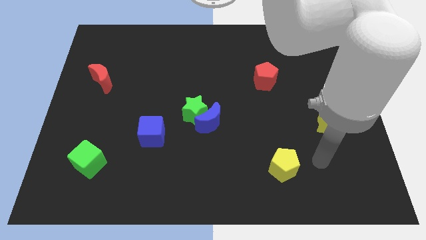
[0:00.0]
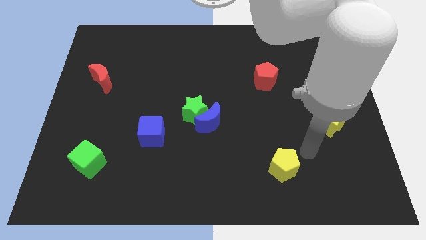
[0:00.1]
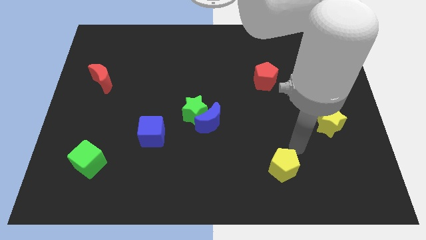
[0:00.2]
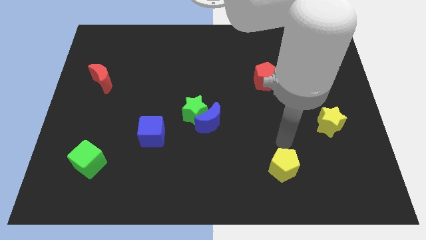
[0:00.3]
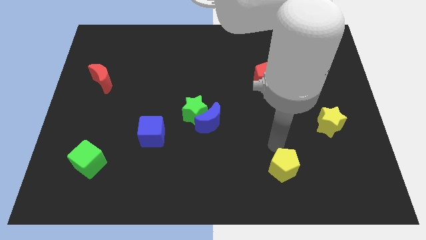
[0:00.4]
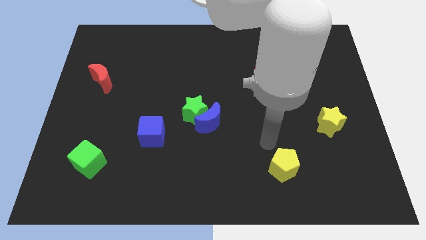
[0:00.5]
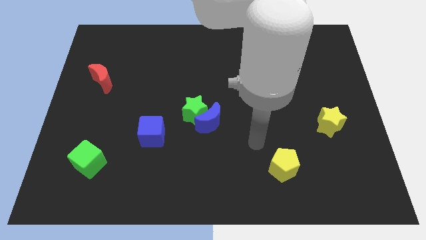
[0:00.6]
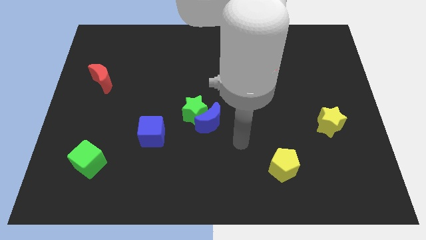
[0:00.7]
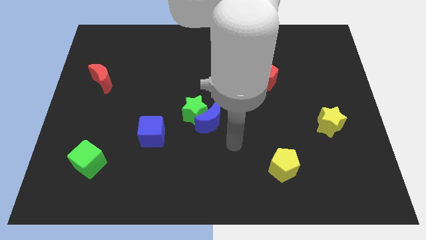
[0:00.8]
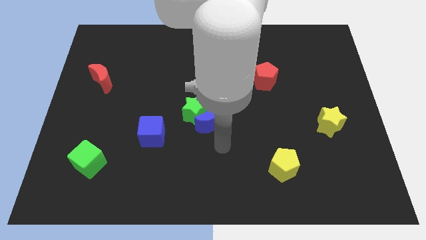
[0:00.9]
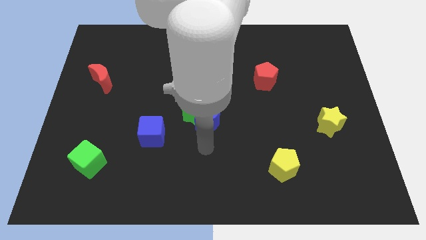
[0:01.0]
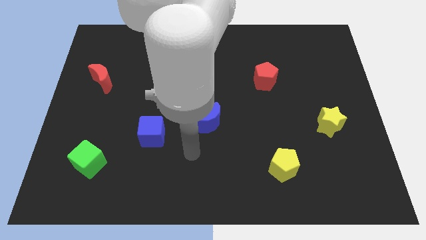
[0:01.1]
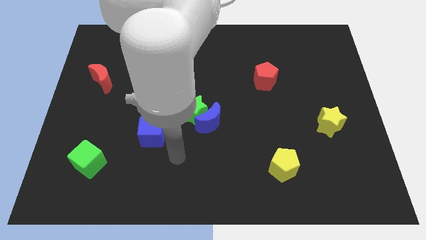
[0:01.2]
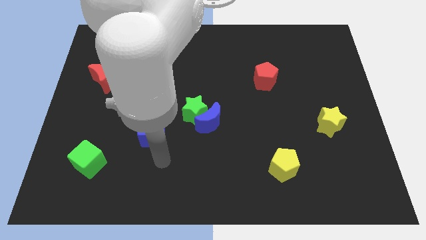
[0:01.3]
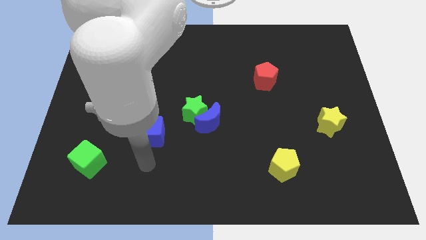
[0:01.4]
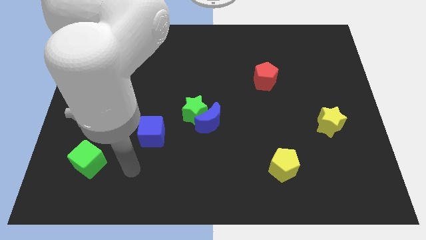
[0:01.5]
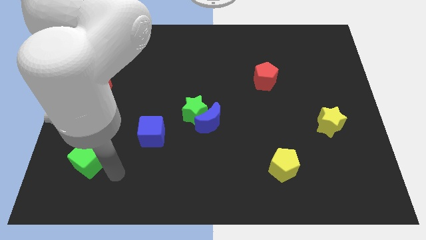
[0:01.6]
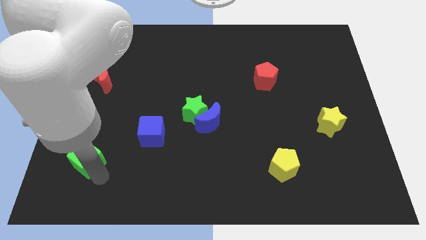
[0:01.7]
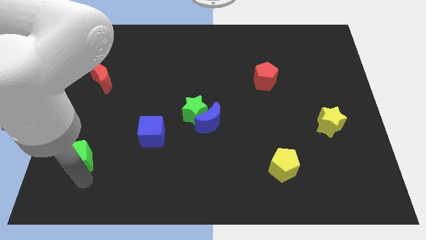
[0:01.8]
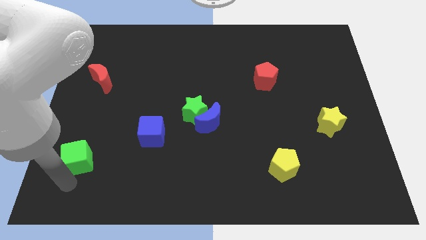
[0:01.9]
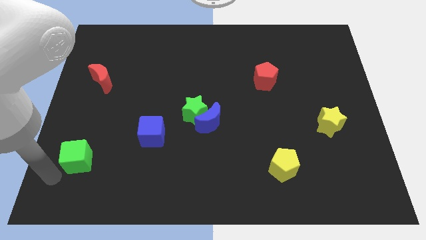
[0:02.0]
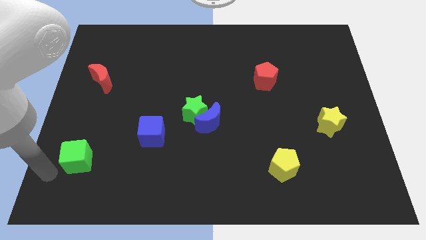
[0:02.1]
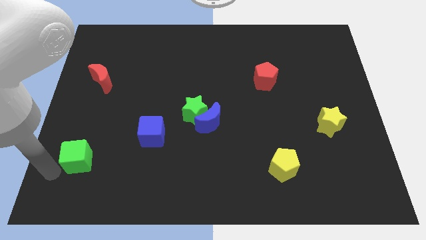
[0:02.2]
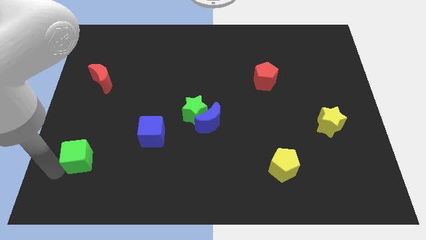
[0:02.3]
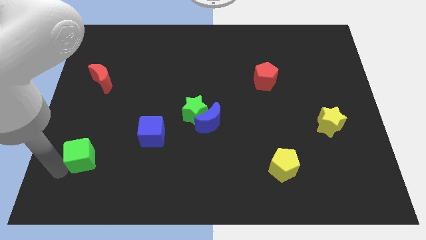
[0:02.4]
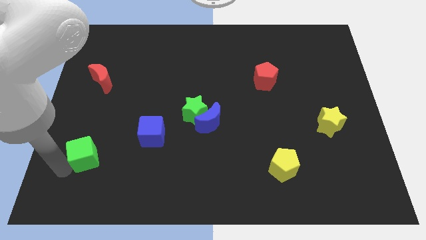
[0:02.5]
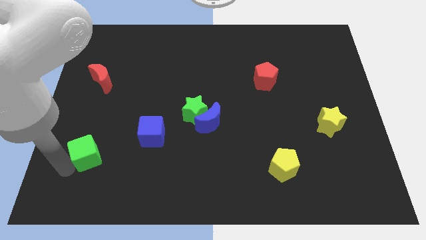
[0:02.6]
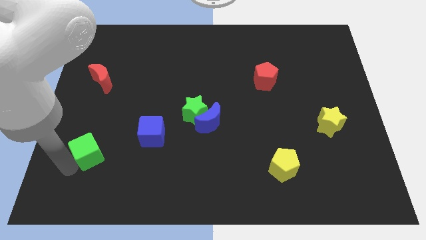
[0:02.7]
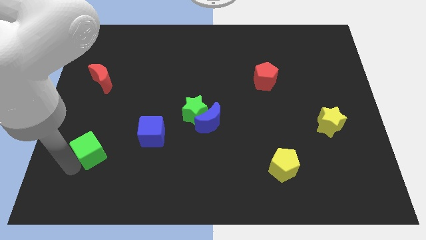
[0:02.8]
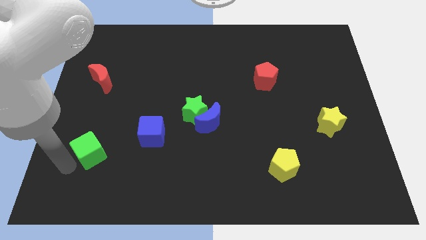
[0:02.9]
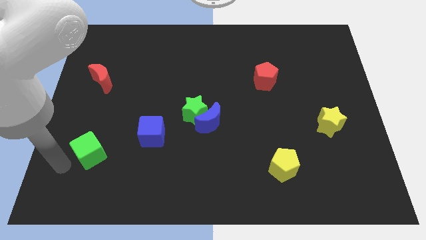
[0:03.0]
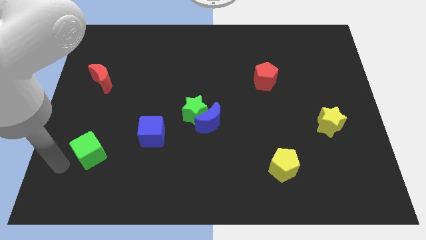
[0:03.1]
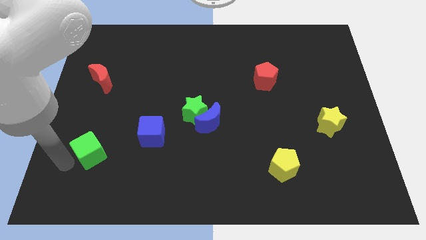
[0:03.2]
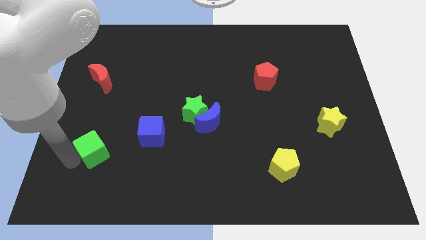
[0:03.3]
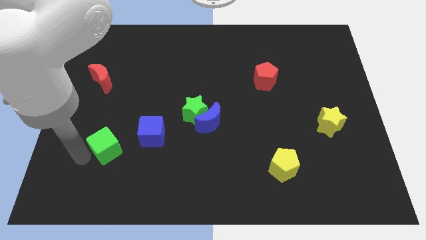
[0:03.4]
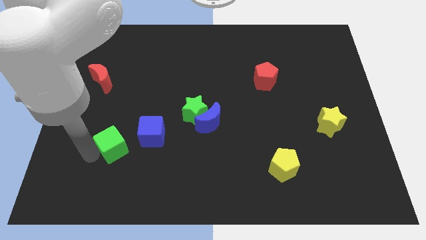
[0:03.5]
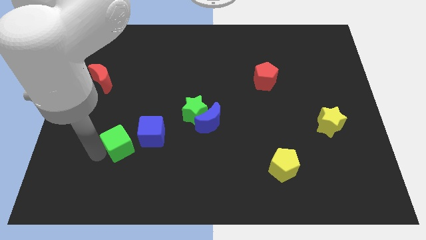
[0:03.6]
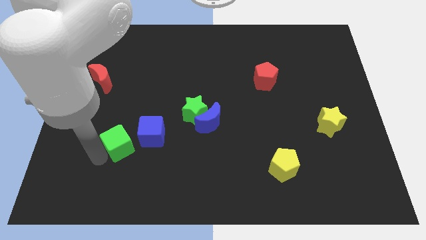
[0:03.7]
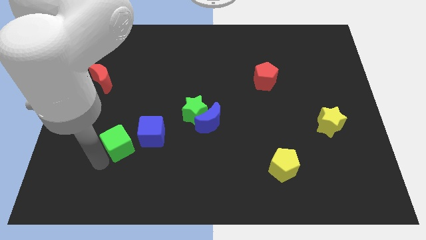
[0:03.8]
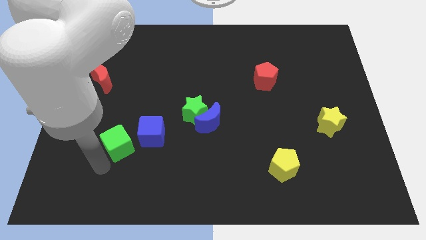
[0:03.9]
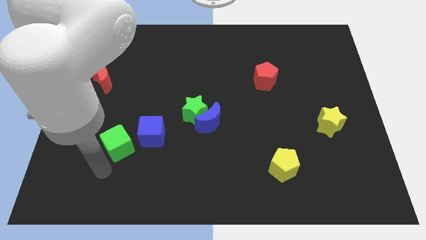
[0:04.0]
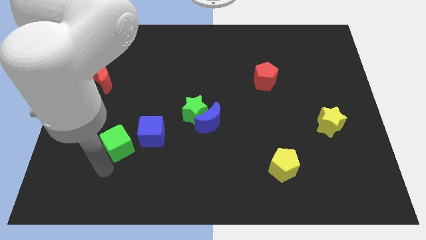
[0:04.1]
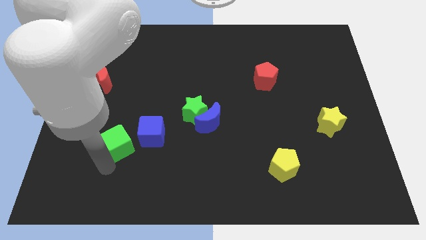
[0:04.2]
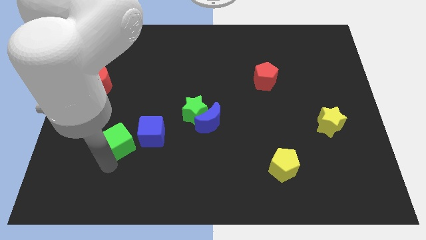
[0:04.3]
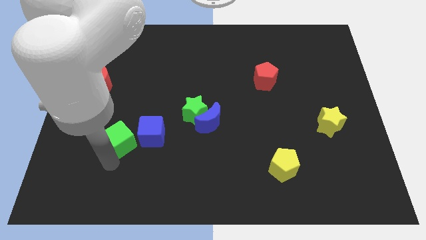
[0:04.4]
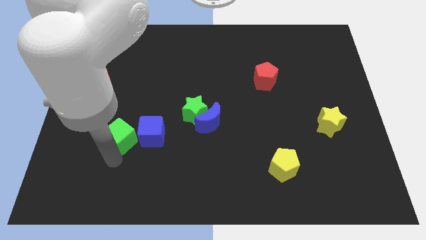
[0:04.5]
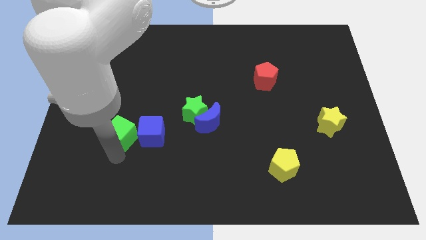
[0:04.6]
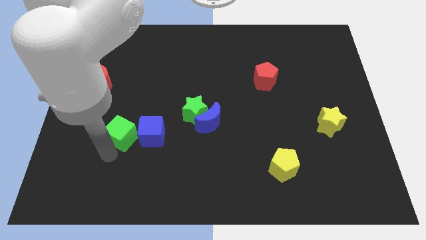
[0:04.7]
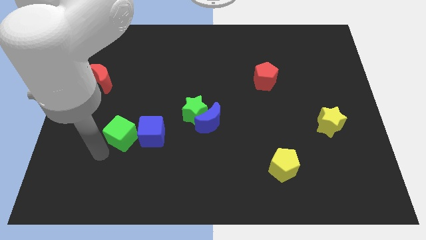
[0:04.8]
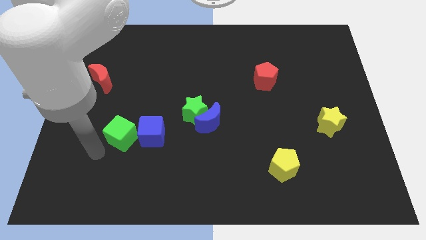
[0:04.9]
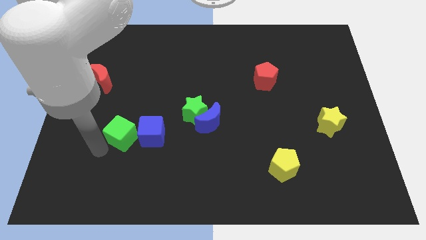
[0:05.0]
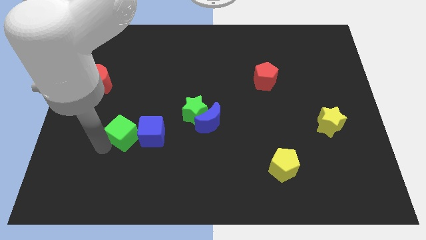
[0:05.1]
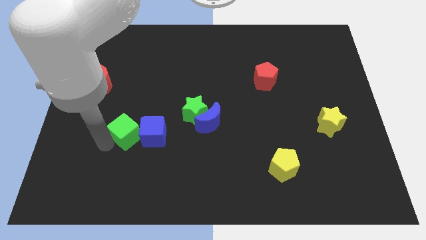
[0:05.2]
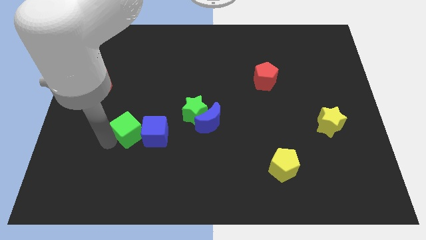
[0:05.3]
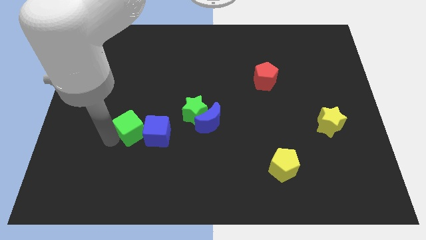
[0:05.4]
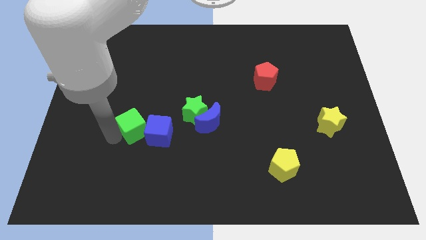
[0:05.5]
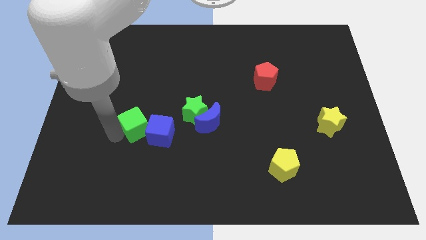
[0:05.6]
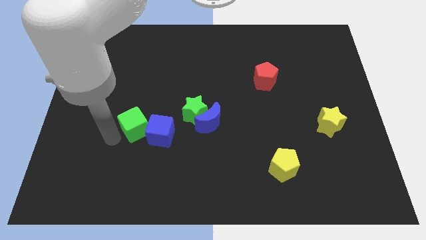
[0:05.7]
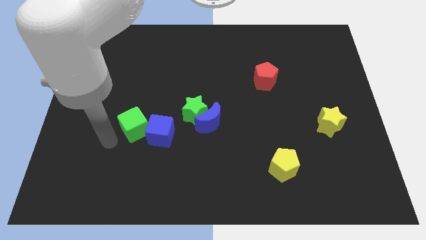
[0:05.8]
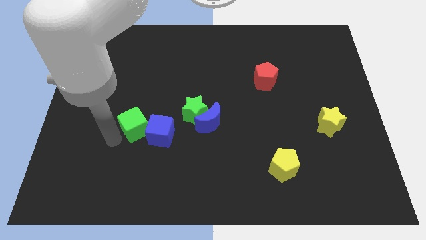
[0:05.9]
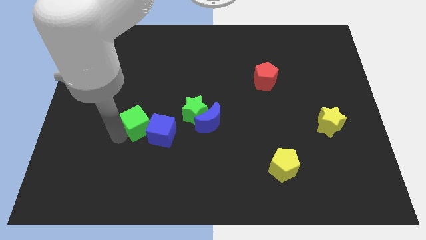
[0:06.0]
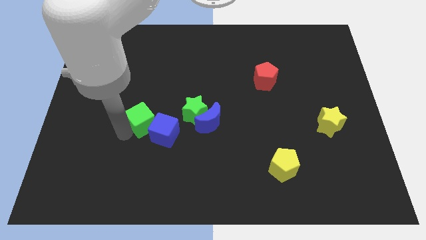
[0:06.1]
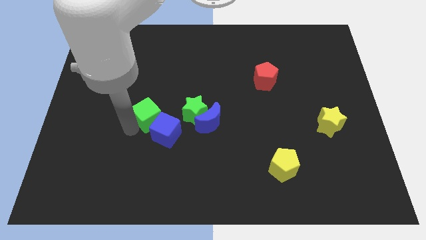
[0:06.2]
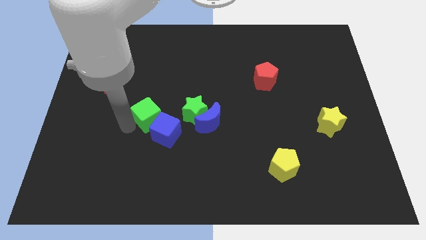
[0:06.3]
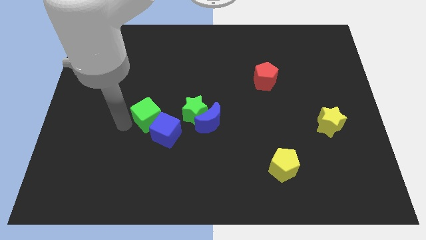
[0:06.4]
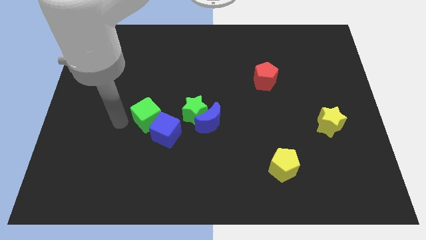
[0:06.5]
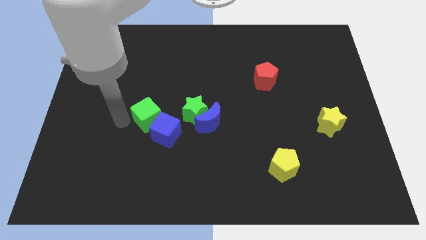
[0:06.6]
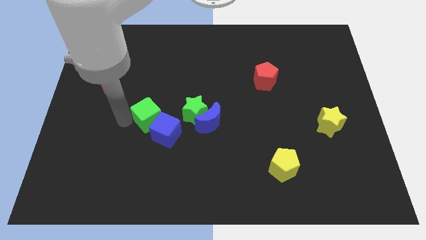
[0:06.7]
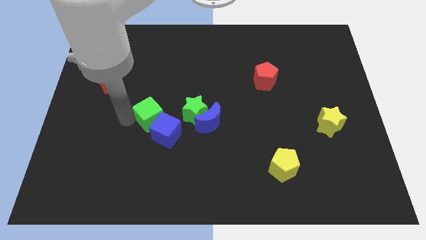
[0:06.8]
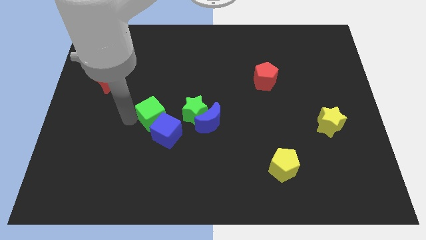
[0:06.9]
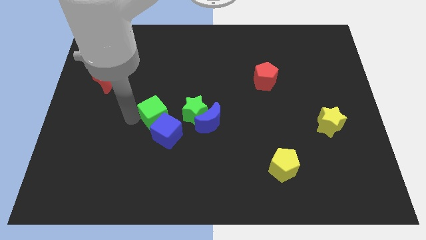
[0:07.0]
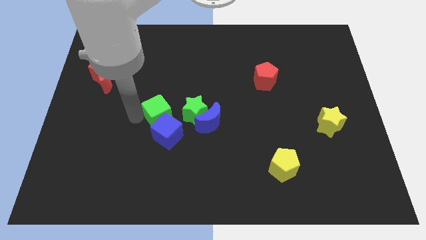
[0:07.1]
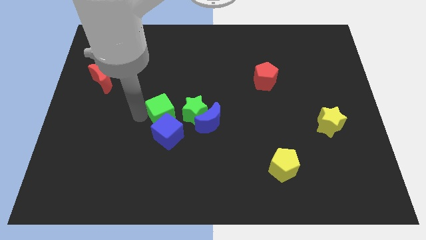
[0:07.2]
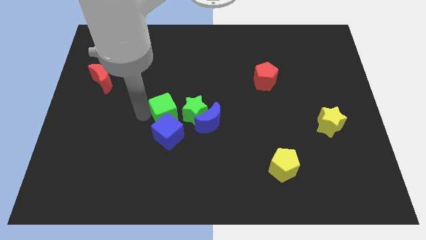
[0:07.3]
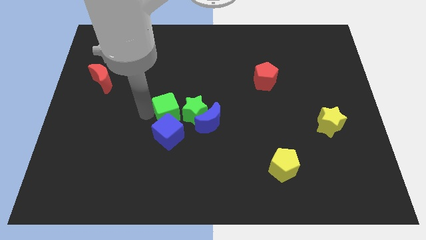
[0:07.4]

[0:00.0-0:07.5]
move the green cube to the green star
